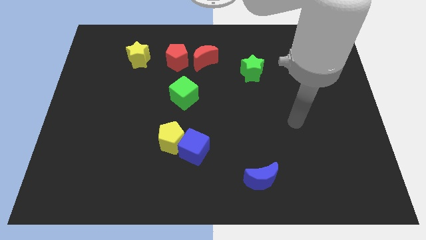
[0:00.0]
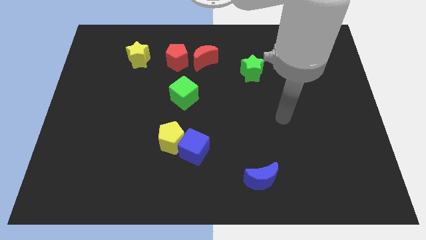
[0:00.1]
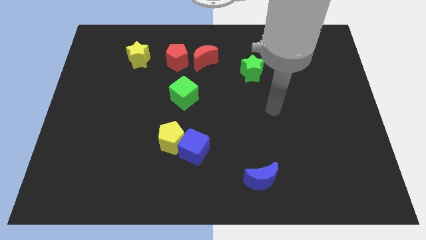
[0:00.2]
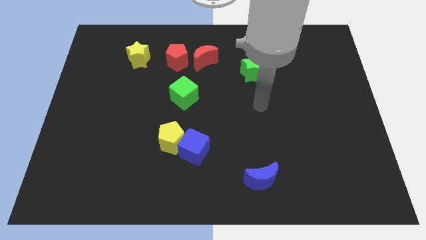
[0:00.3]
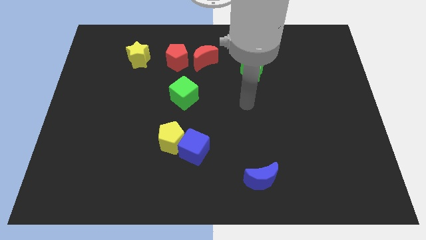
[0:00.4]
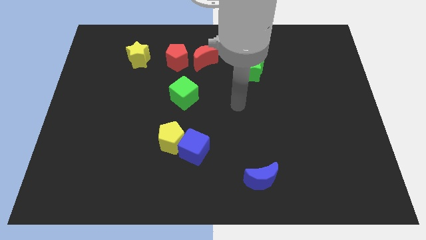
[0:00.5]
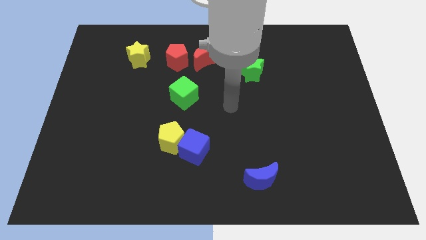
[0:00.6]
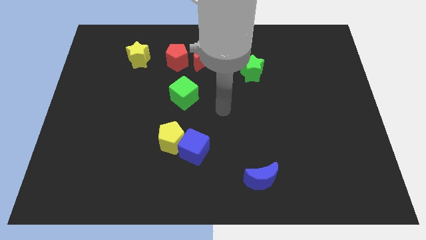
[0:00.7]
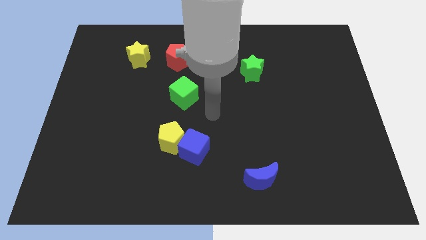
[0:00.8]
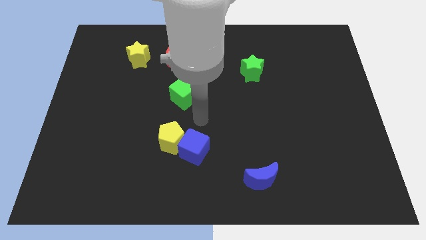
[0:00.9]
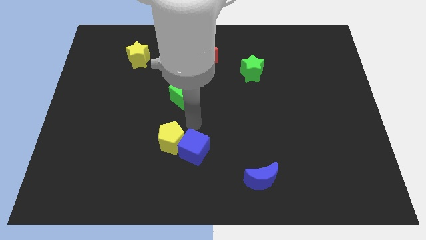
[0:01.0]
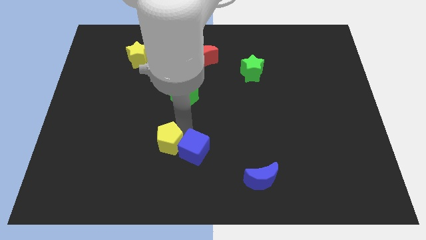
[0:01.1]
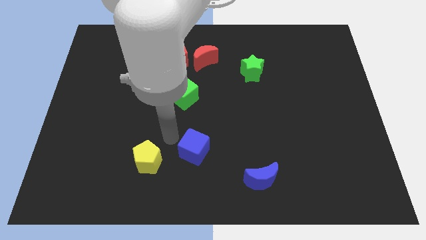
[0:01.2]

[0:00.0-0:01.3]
move the blue cube away from the yellow pentagon

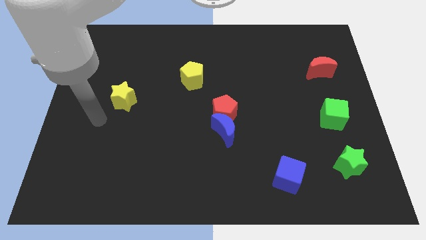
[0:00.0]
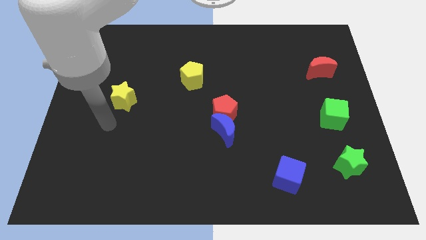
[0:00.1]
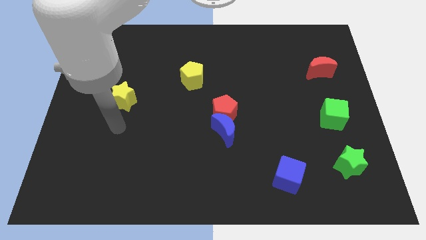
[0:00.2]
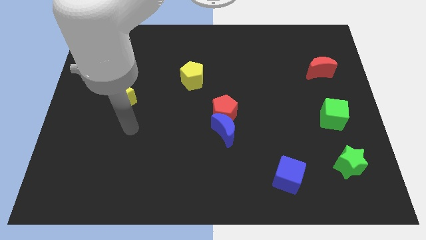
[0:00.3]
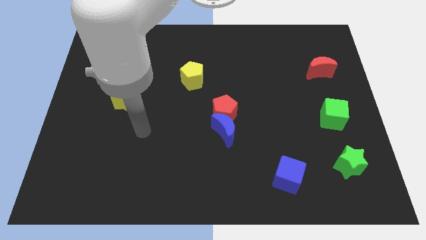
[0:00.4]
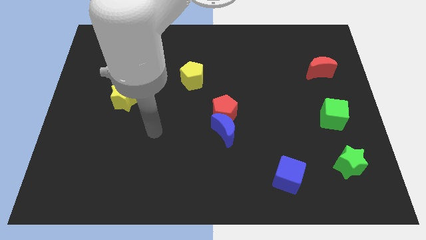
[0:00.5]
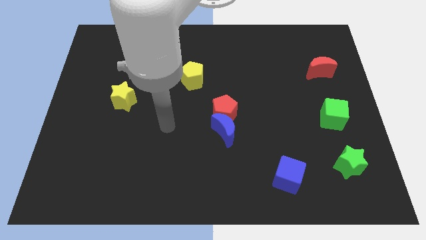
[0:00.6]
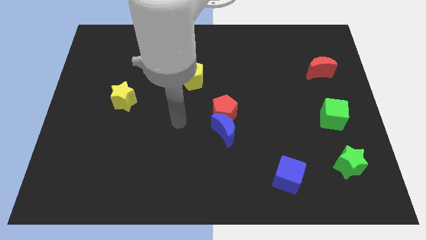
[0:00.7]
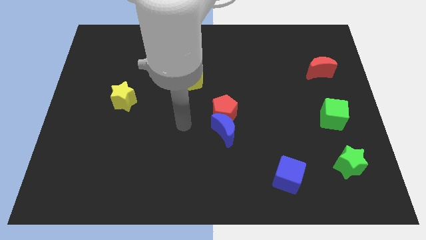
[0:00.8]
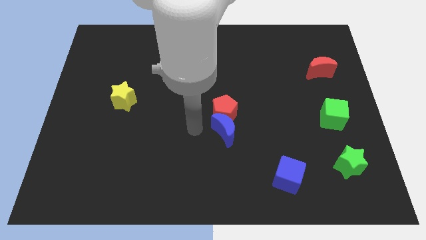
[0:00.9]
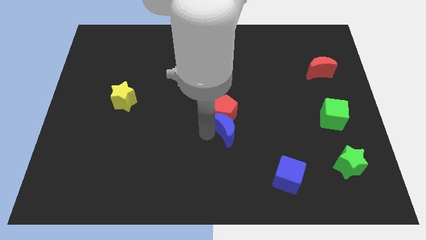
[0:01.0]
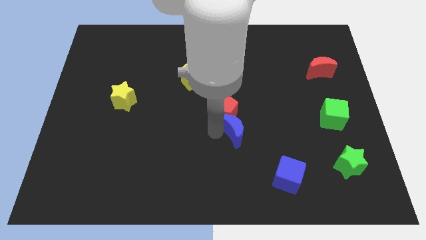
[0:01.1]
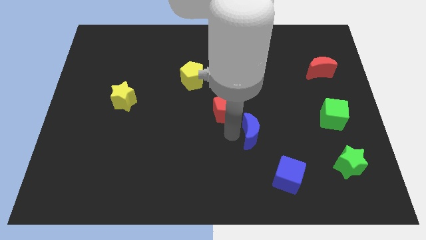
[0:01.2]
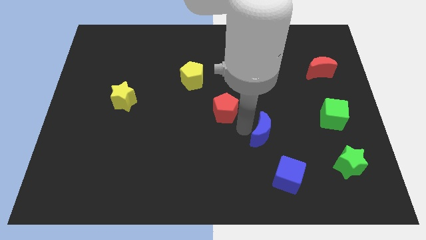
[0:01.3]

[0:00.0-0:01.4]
separate the red pentagon from the blue moon
